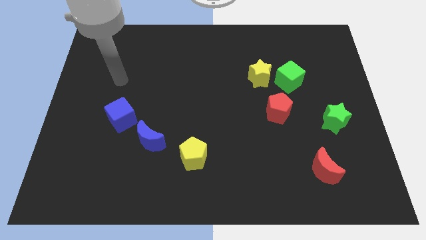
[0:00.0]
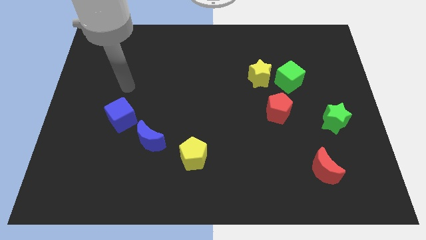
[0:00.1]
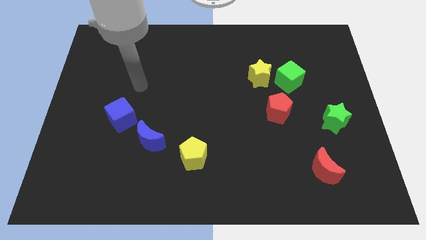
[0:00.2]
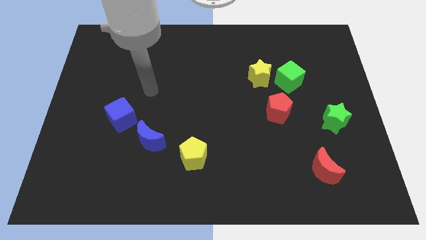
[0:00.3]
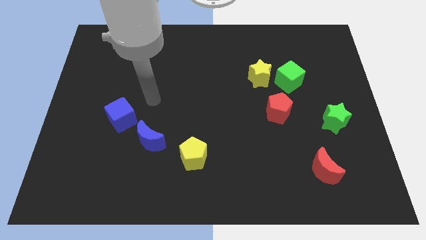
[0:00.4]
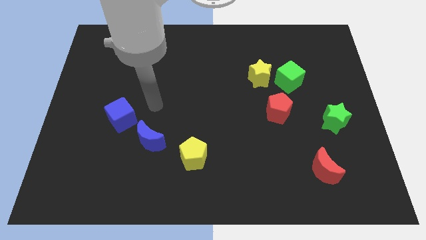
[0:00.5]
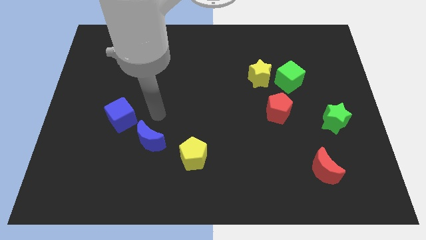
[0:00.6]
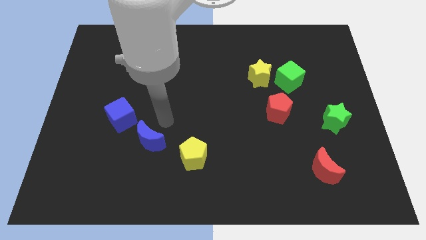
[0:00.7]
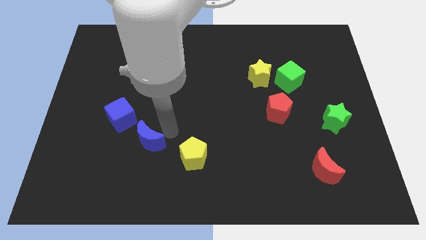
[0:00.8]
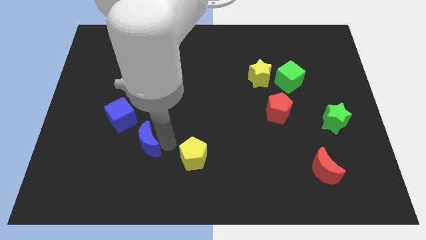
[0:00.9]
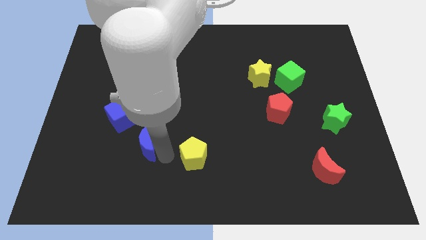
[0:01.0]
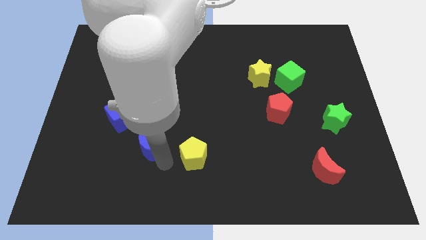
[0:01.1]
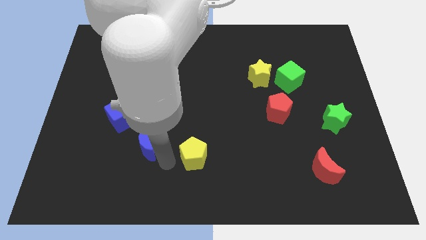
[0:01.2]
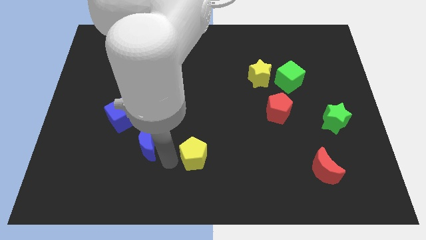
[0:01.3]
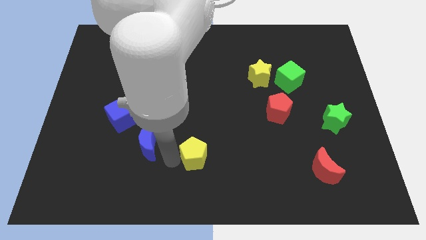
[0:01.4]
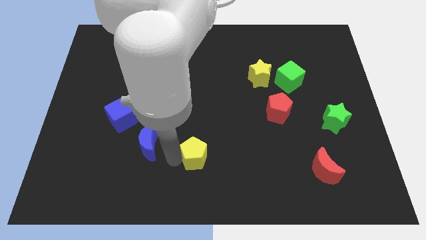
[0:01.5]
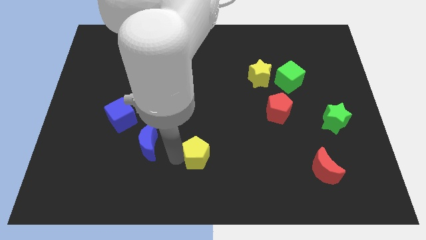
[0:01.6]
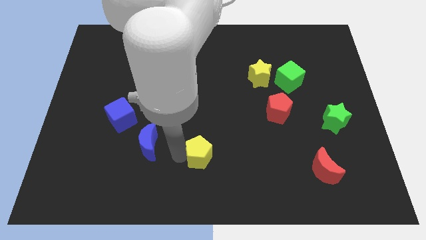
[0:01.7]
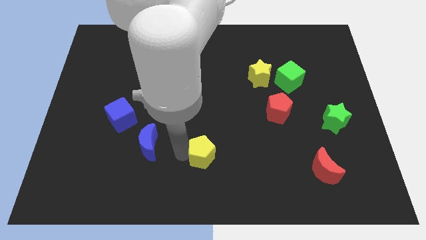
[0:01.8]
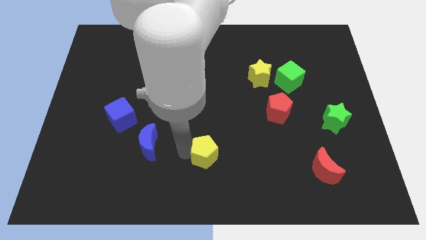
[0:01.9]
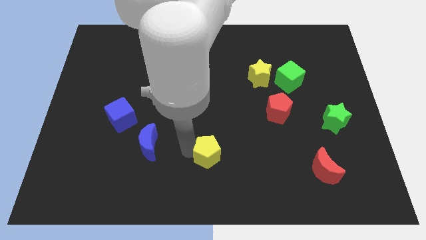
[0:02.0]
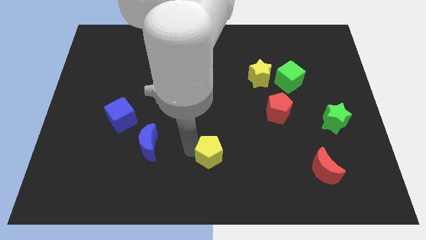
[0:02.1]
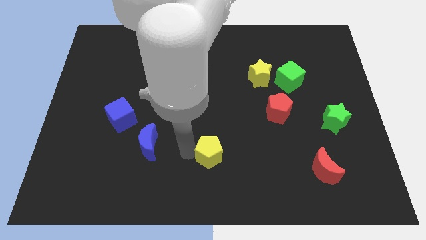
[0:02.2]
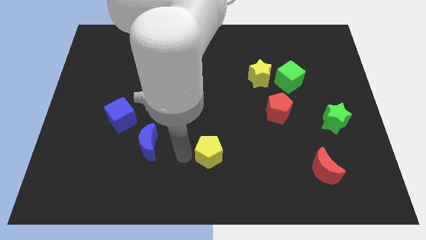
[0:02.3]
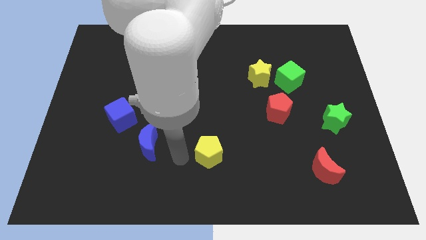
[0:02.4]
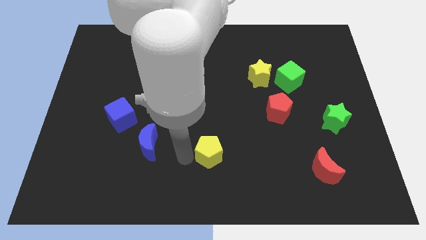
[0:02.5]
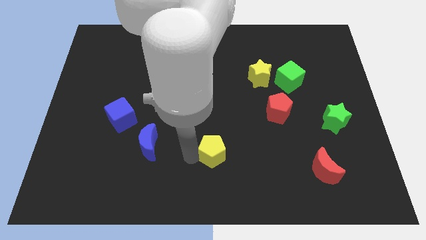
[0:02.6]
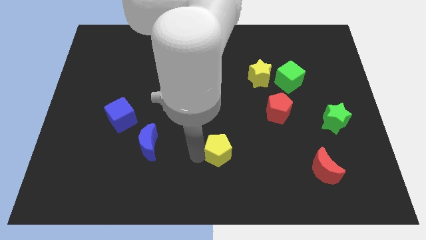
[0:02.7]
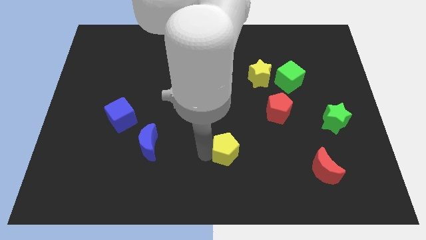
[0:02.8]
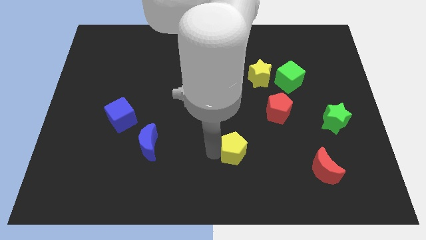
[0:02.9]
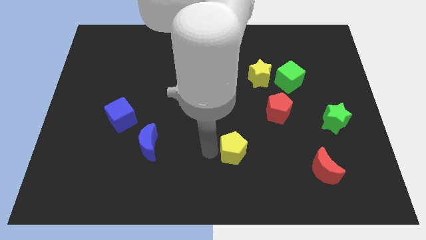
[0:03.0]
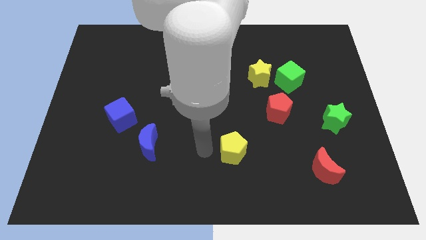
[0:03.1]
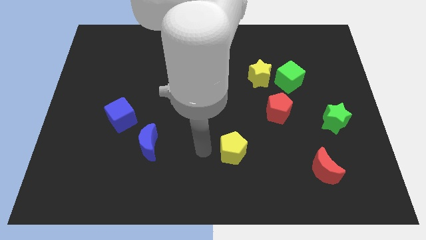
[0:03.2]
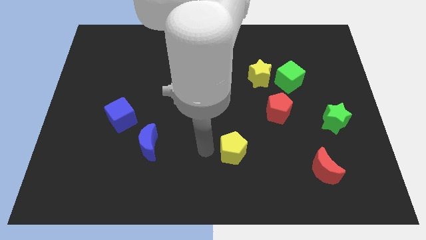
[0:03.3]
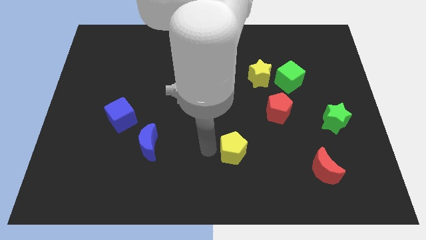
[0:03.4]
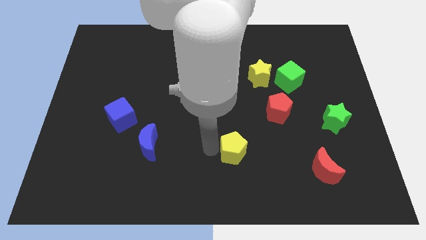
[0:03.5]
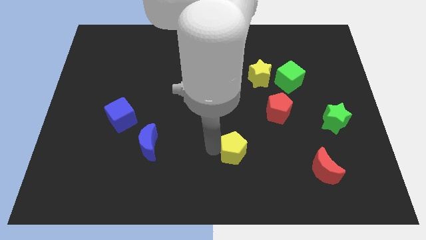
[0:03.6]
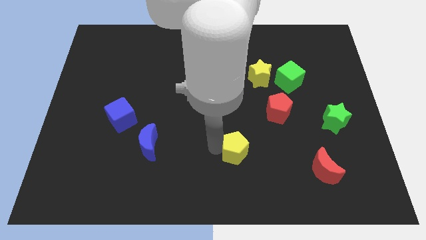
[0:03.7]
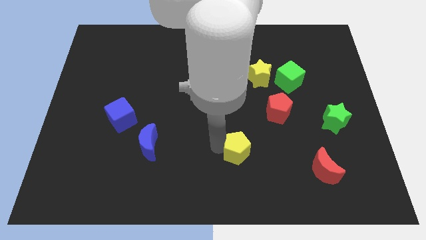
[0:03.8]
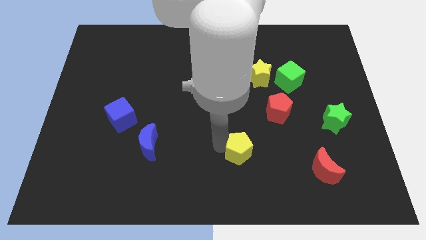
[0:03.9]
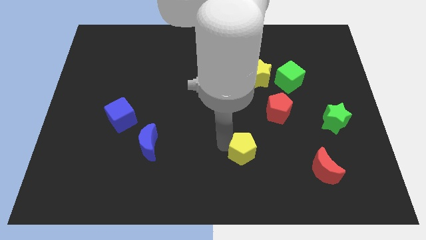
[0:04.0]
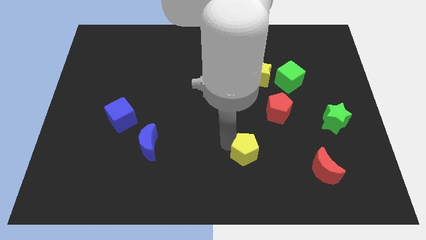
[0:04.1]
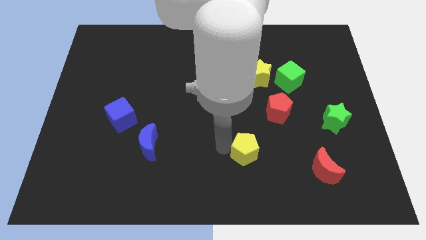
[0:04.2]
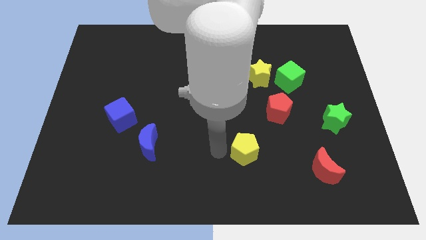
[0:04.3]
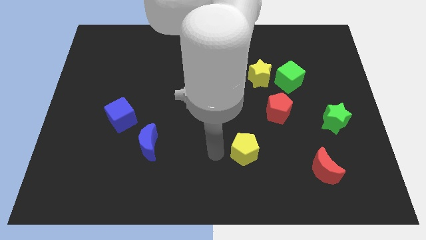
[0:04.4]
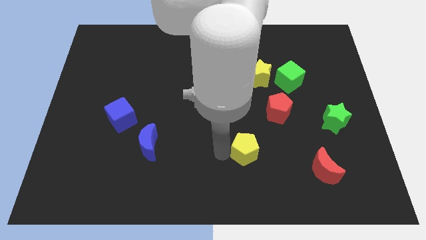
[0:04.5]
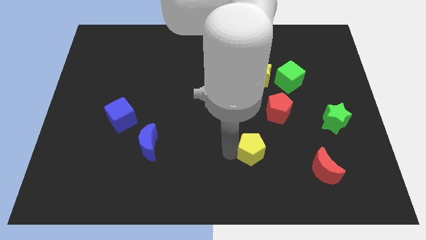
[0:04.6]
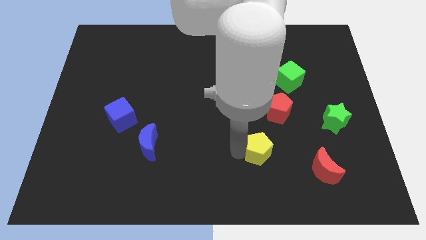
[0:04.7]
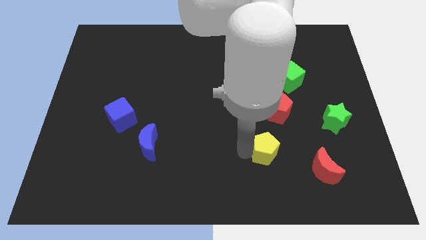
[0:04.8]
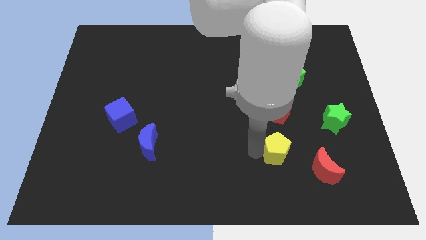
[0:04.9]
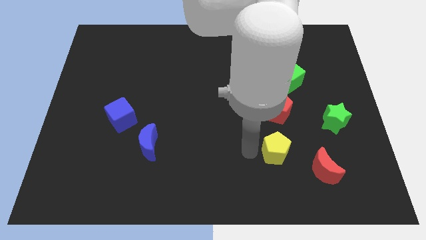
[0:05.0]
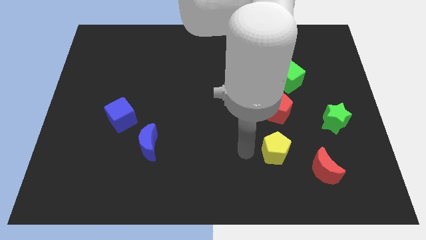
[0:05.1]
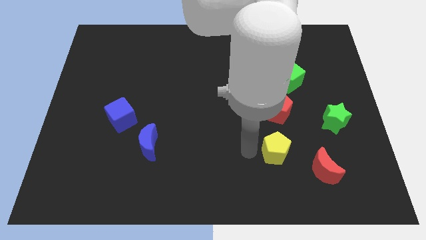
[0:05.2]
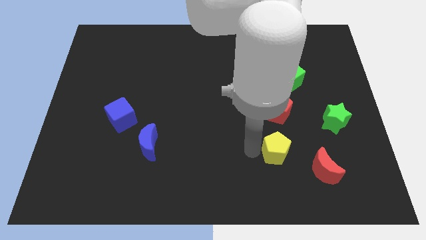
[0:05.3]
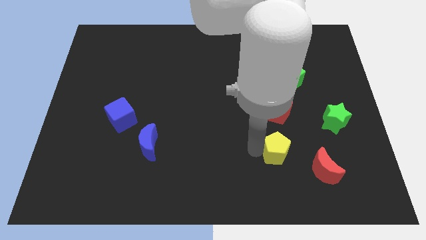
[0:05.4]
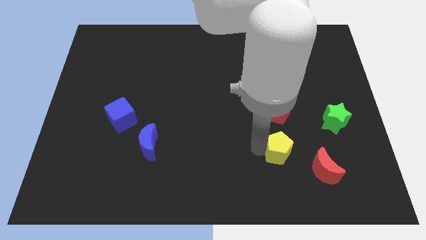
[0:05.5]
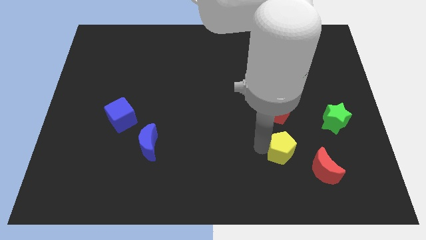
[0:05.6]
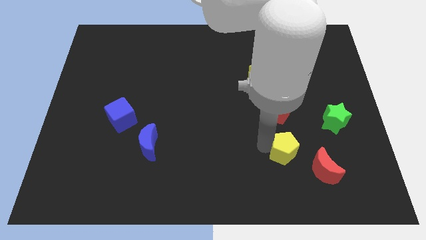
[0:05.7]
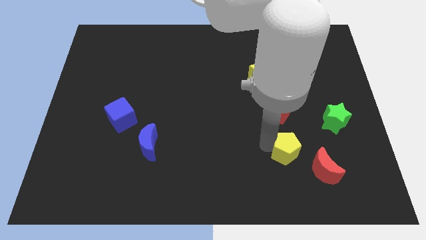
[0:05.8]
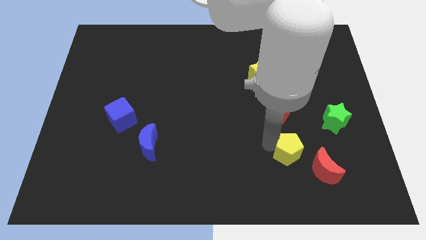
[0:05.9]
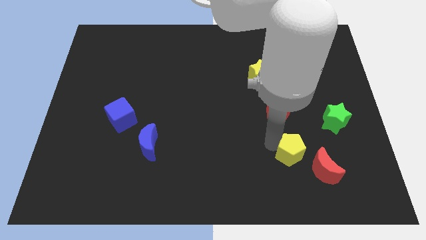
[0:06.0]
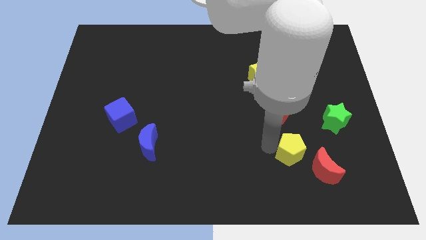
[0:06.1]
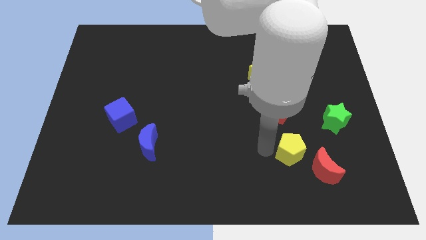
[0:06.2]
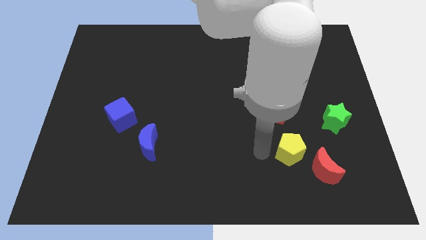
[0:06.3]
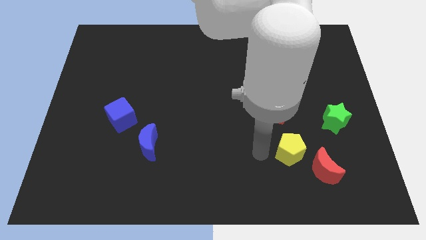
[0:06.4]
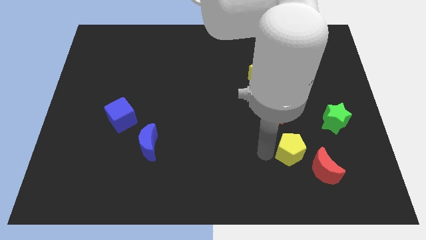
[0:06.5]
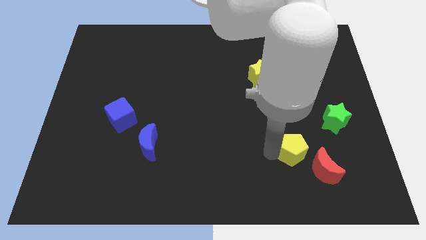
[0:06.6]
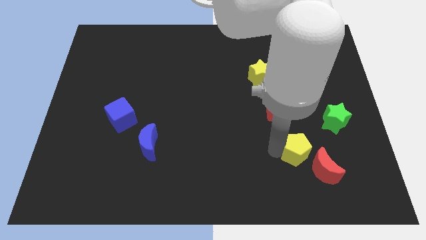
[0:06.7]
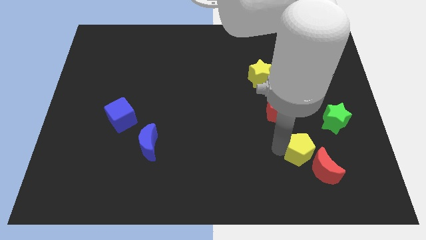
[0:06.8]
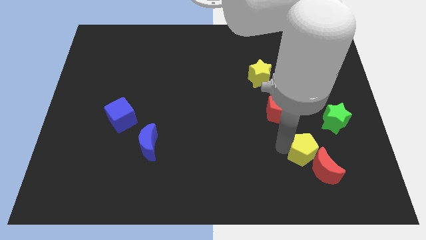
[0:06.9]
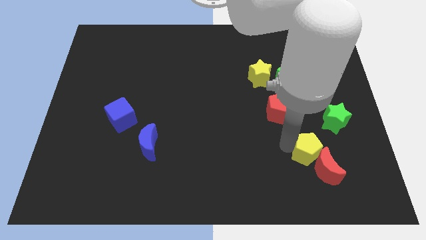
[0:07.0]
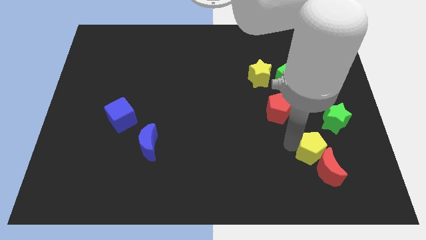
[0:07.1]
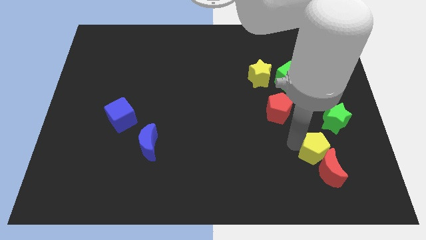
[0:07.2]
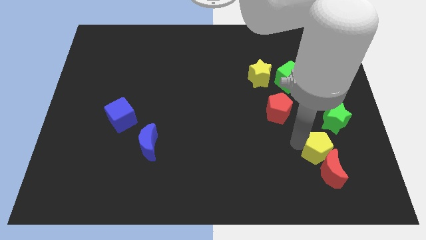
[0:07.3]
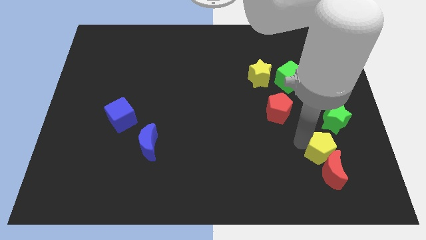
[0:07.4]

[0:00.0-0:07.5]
push the yellow pentagon to the bottom of the green star
